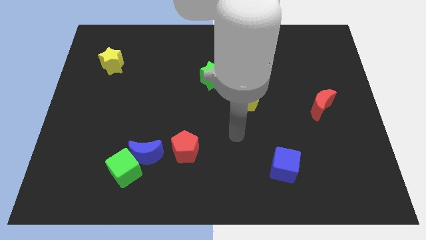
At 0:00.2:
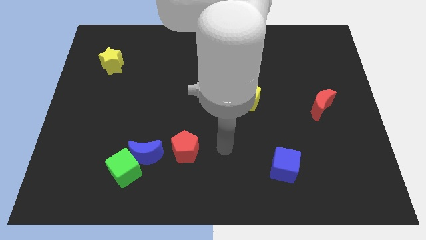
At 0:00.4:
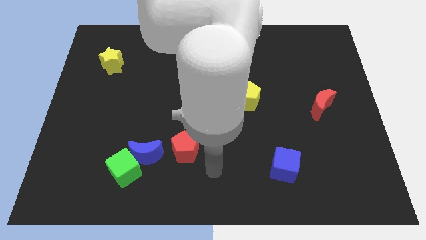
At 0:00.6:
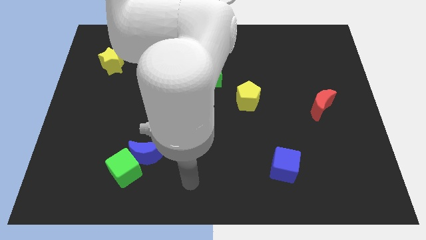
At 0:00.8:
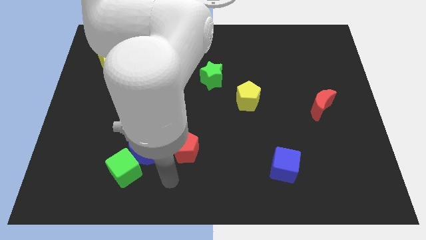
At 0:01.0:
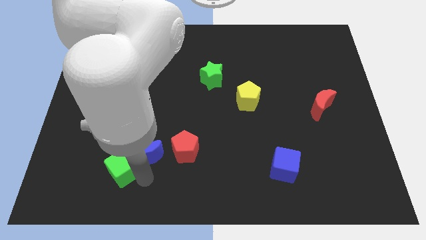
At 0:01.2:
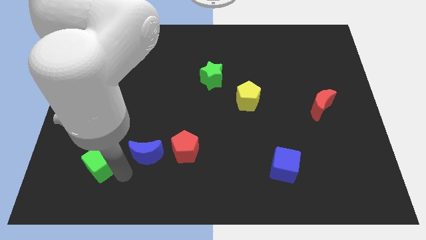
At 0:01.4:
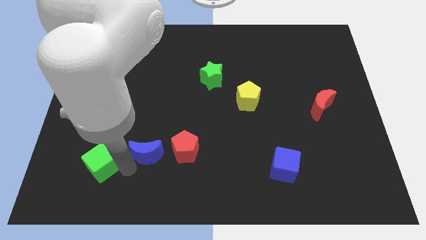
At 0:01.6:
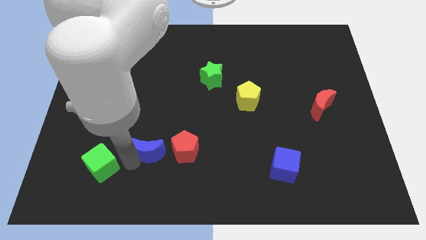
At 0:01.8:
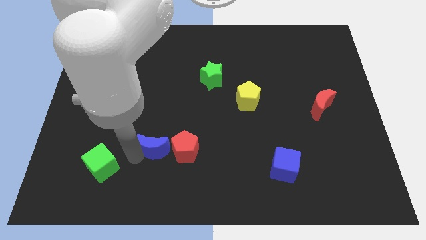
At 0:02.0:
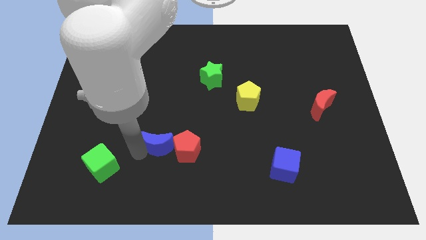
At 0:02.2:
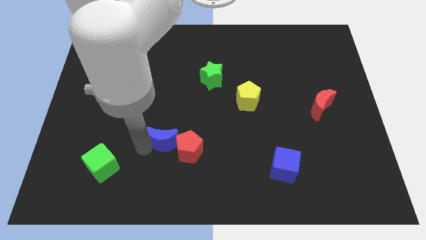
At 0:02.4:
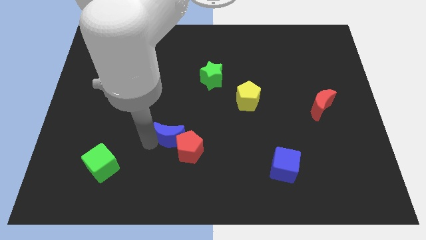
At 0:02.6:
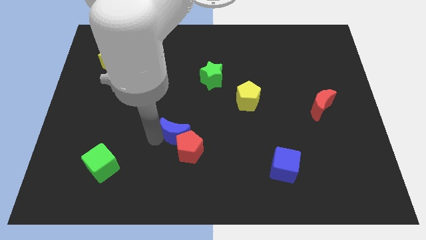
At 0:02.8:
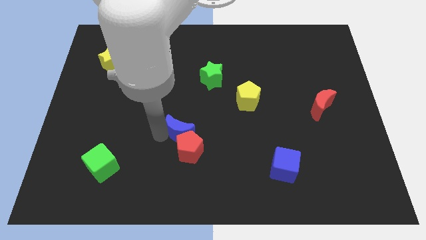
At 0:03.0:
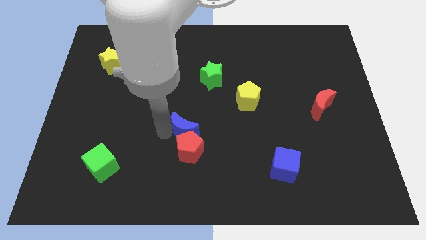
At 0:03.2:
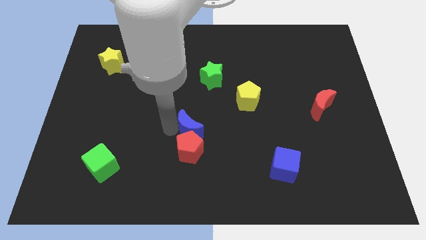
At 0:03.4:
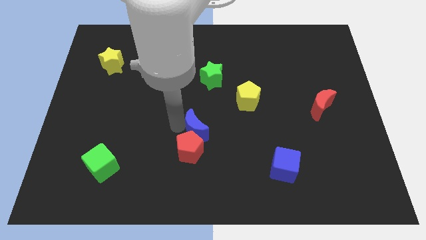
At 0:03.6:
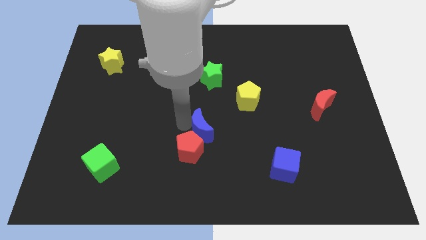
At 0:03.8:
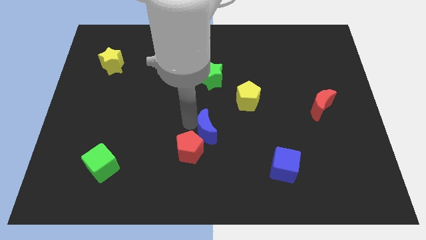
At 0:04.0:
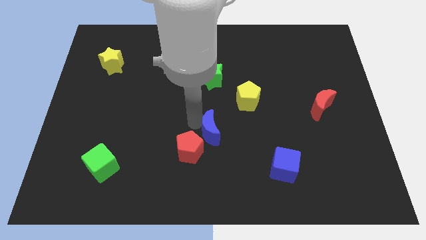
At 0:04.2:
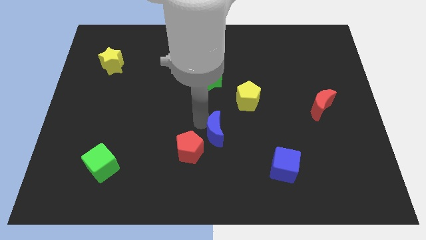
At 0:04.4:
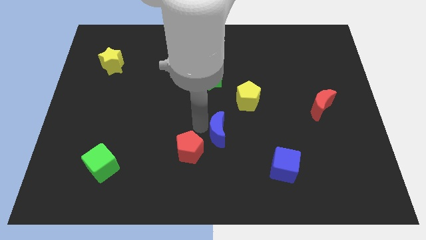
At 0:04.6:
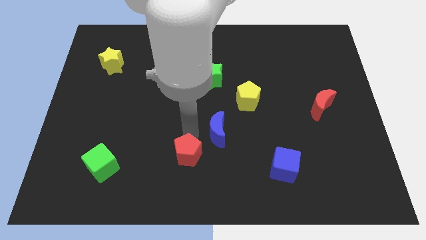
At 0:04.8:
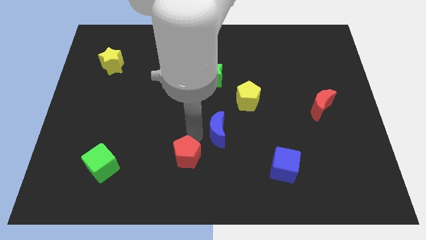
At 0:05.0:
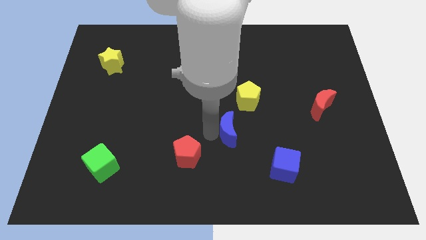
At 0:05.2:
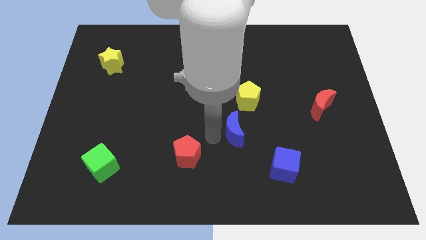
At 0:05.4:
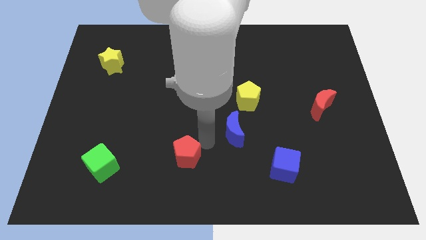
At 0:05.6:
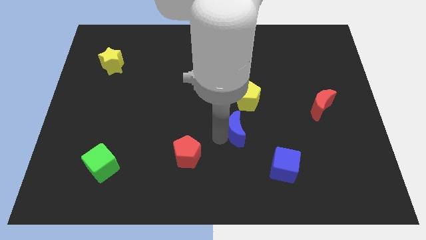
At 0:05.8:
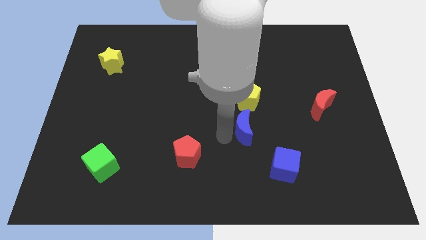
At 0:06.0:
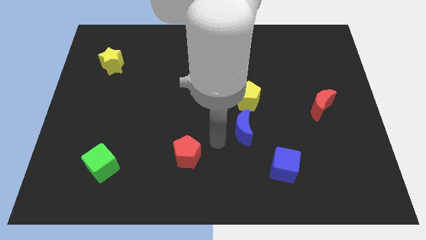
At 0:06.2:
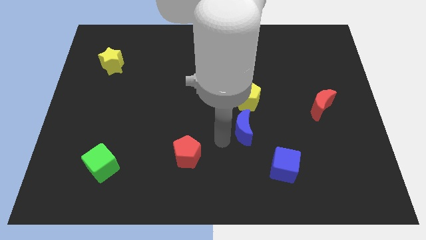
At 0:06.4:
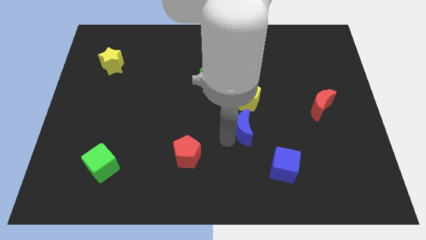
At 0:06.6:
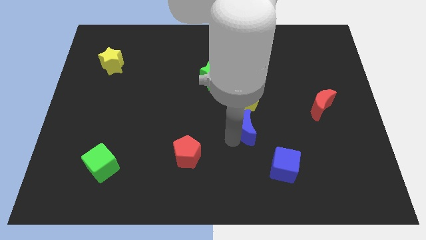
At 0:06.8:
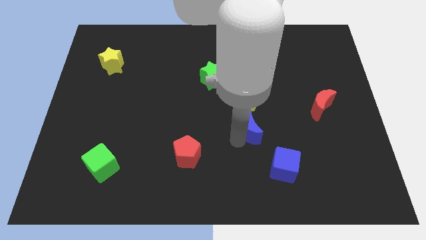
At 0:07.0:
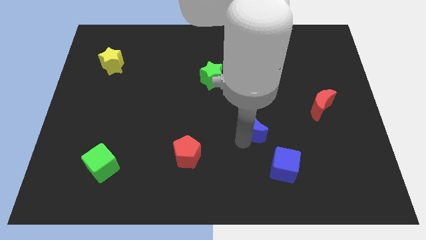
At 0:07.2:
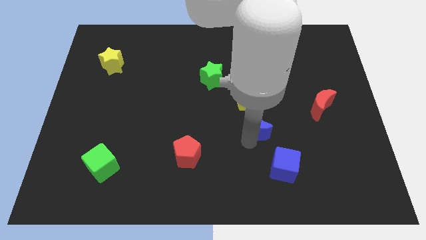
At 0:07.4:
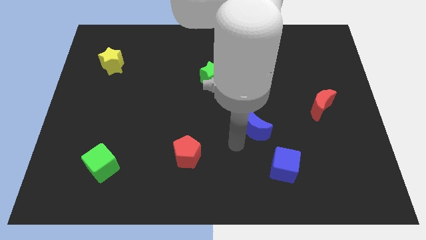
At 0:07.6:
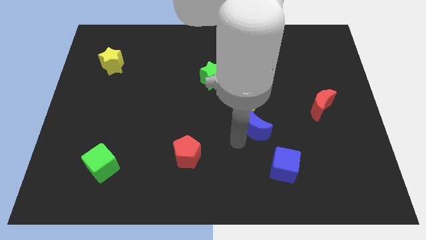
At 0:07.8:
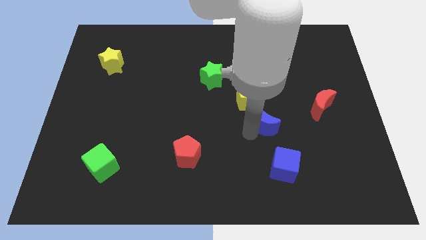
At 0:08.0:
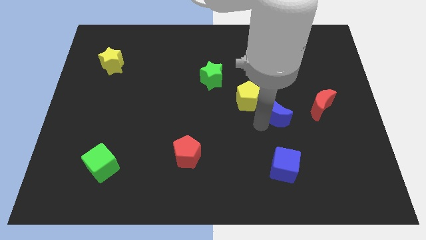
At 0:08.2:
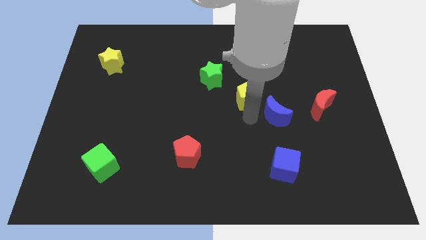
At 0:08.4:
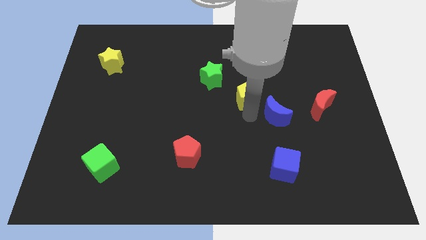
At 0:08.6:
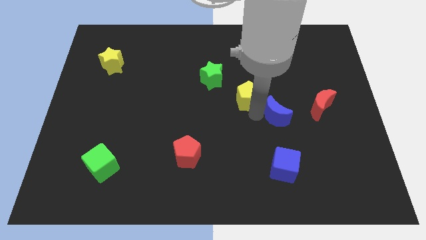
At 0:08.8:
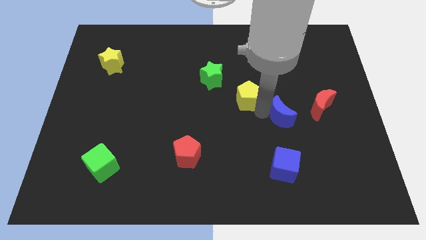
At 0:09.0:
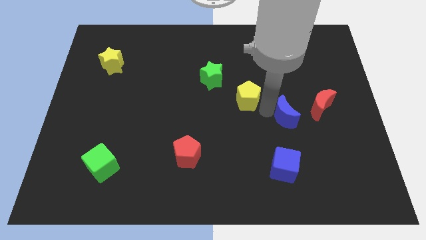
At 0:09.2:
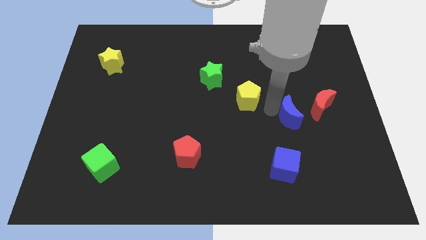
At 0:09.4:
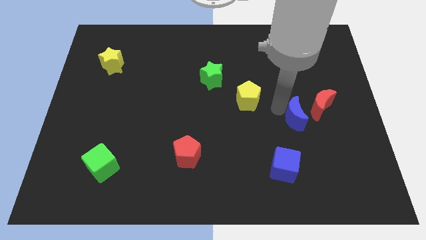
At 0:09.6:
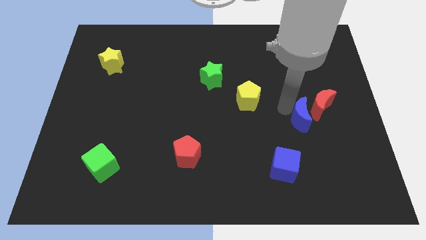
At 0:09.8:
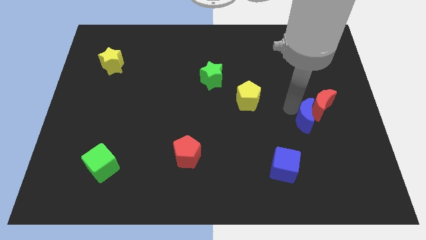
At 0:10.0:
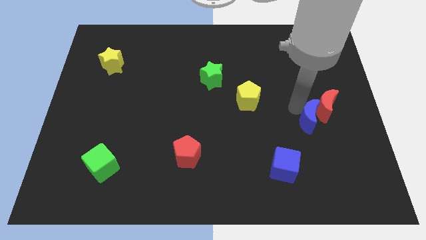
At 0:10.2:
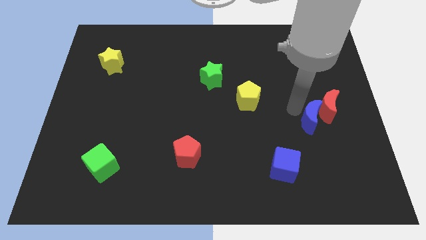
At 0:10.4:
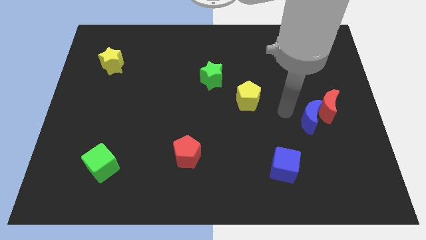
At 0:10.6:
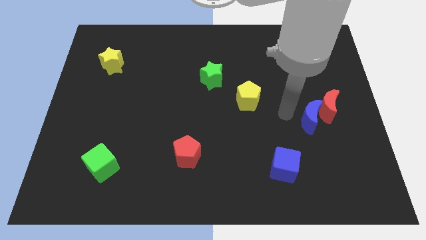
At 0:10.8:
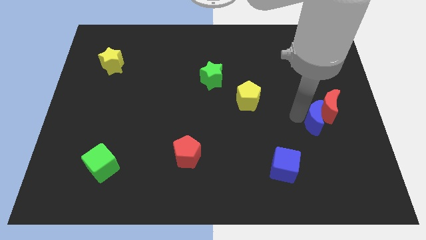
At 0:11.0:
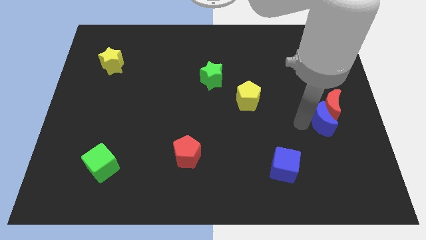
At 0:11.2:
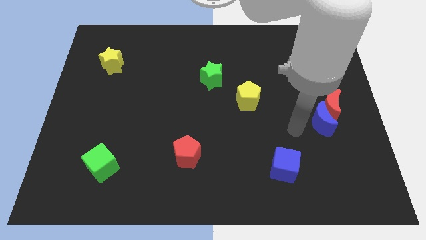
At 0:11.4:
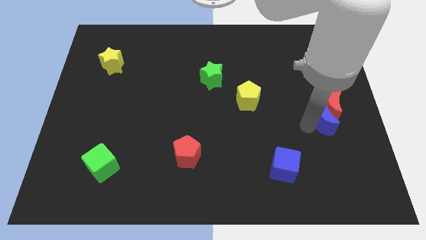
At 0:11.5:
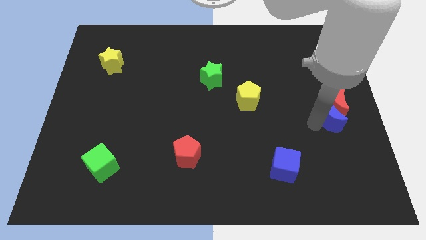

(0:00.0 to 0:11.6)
push the blue moon to the right side of the board
